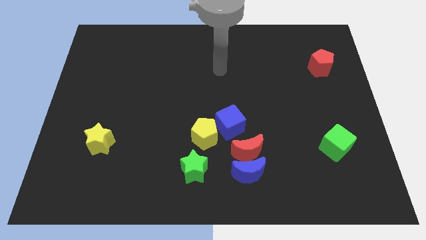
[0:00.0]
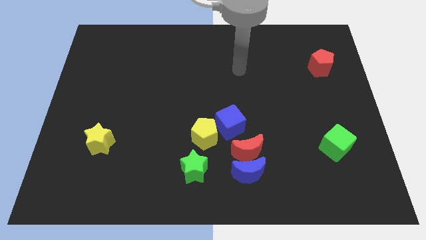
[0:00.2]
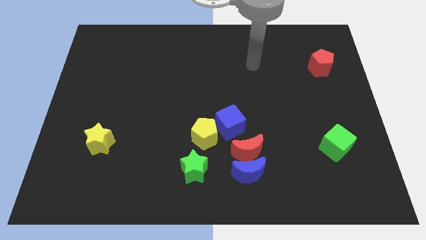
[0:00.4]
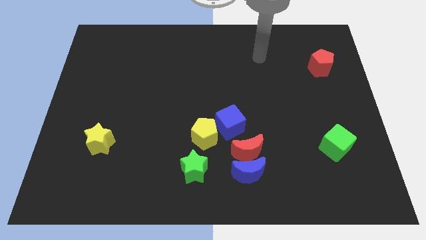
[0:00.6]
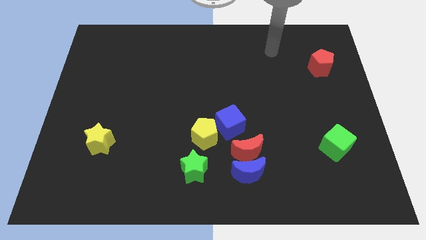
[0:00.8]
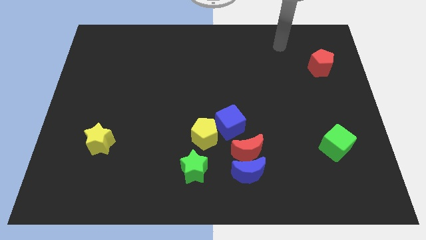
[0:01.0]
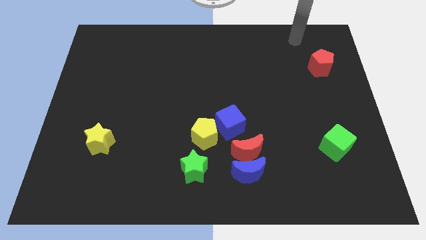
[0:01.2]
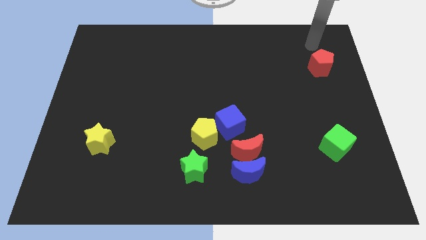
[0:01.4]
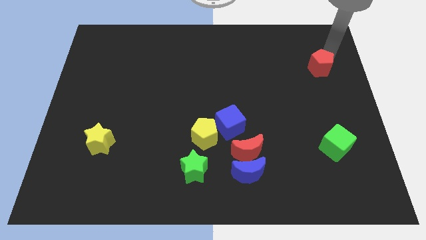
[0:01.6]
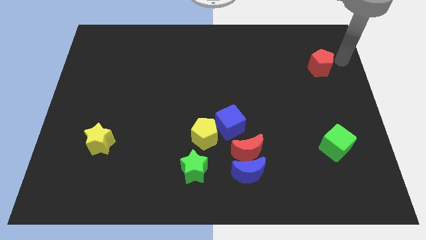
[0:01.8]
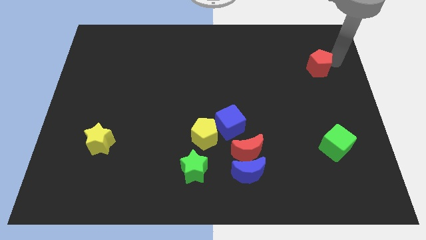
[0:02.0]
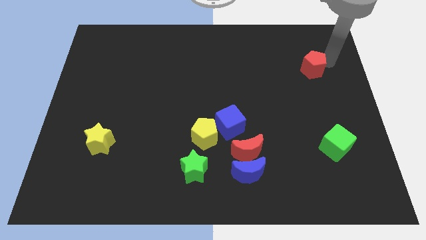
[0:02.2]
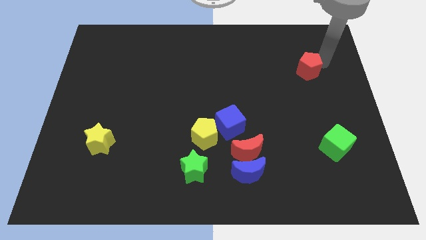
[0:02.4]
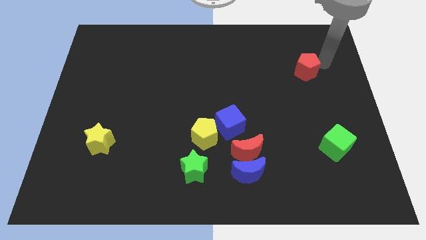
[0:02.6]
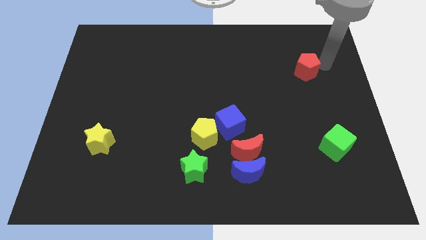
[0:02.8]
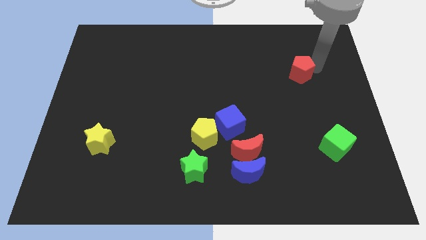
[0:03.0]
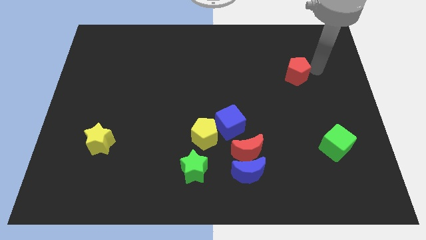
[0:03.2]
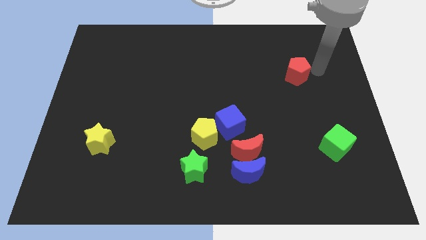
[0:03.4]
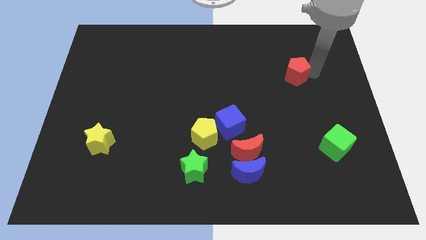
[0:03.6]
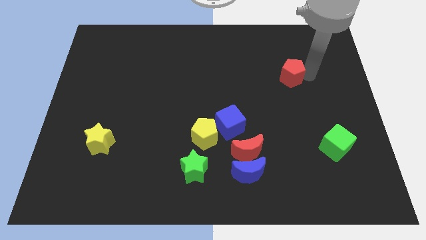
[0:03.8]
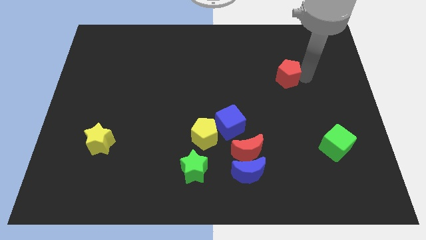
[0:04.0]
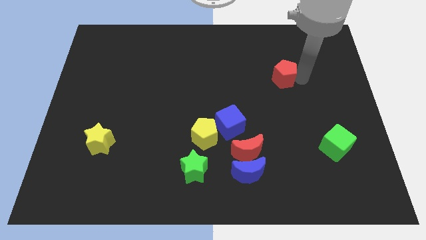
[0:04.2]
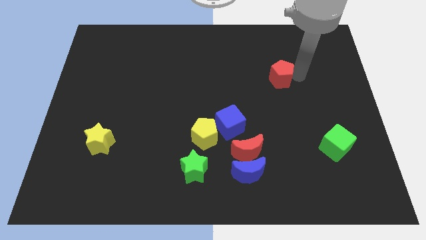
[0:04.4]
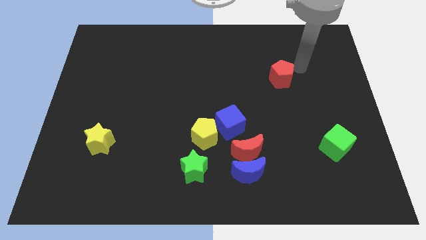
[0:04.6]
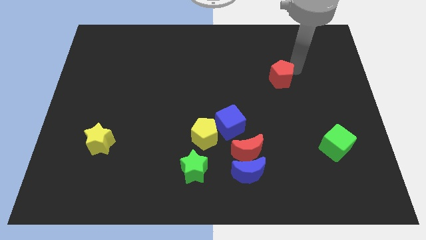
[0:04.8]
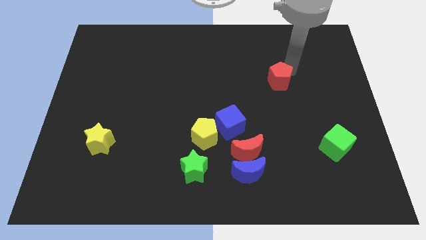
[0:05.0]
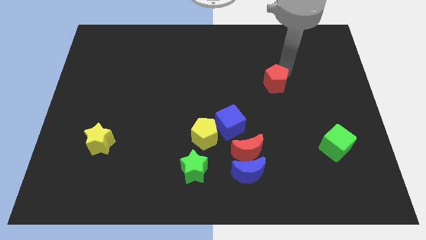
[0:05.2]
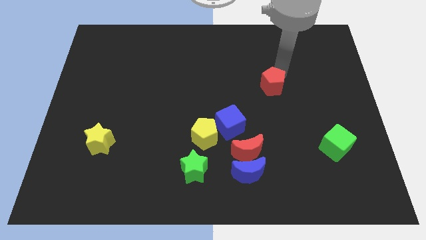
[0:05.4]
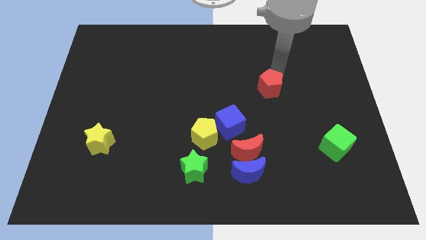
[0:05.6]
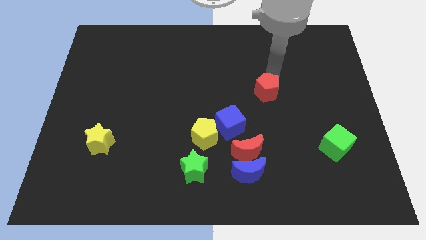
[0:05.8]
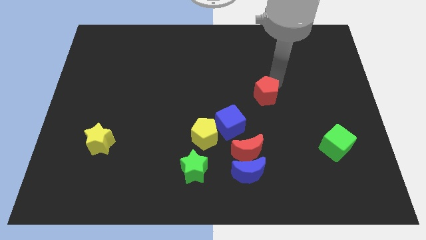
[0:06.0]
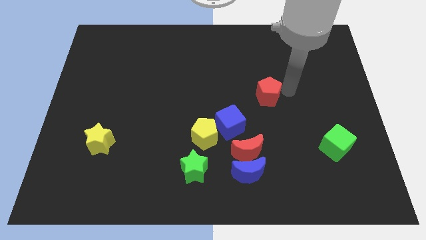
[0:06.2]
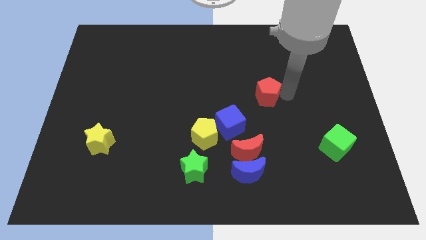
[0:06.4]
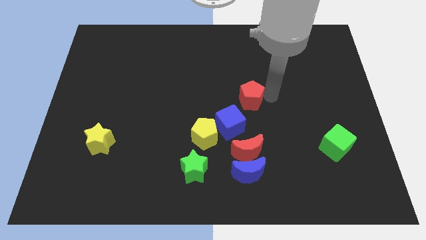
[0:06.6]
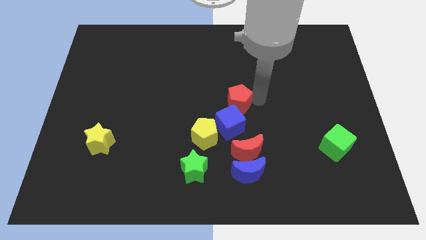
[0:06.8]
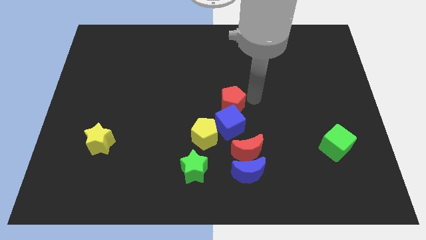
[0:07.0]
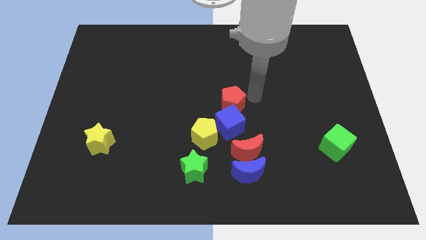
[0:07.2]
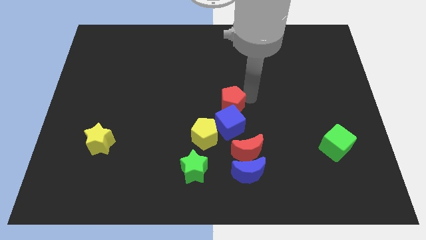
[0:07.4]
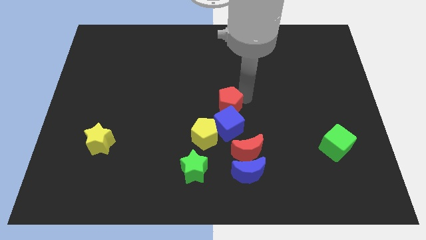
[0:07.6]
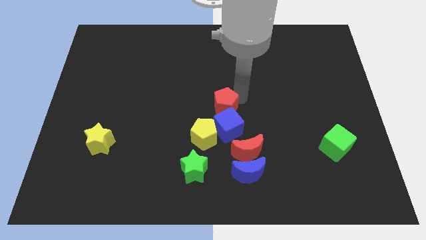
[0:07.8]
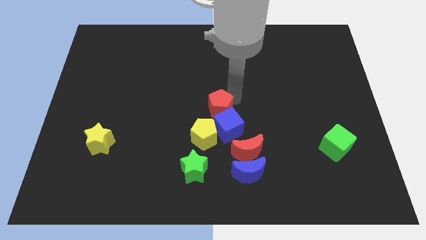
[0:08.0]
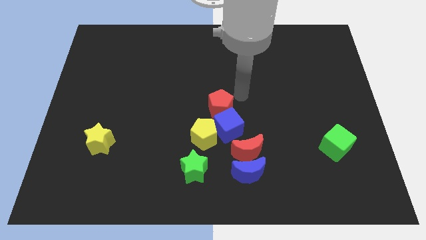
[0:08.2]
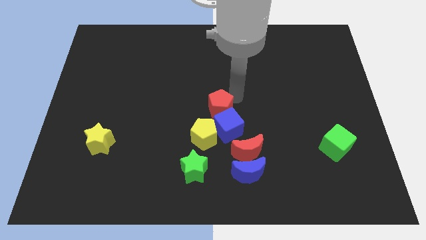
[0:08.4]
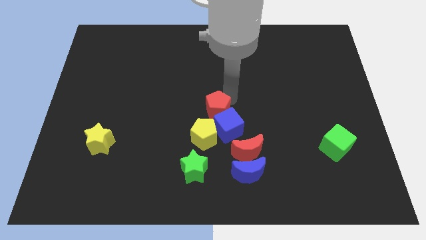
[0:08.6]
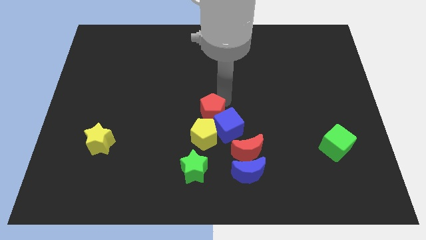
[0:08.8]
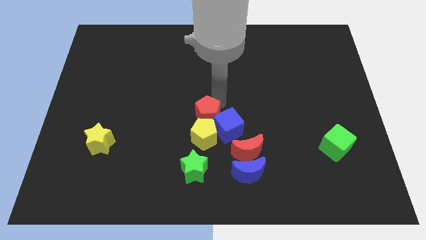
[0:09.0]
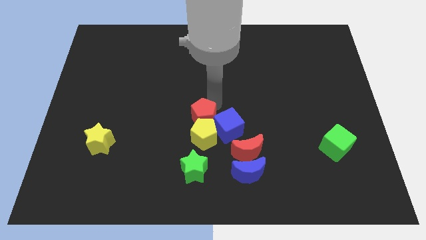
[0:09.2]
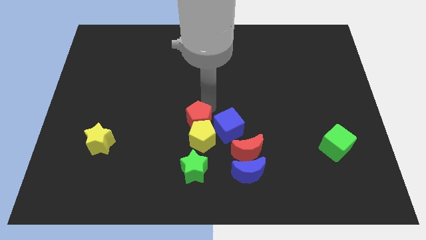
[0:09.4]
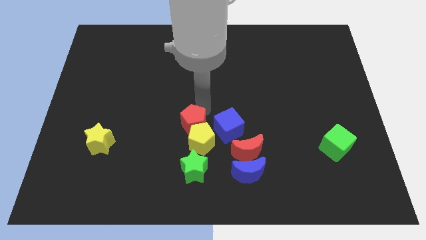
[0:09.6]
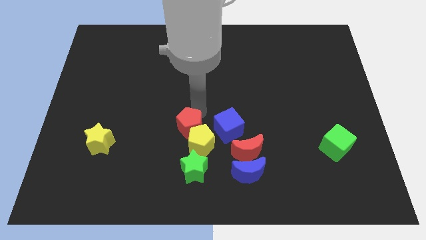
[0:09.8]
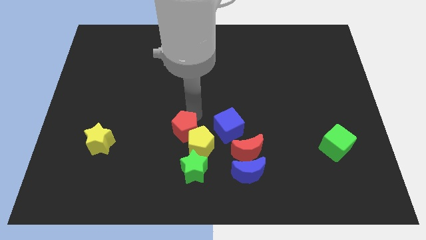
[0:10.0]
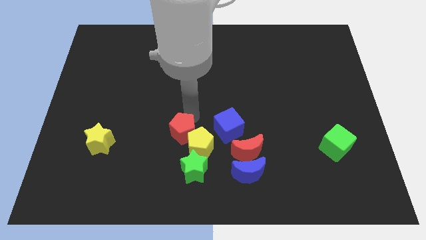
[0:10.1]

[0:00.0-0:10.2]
push the red pentagon to the top left side of the green star

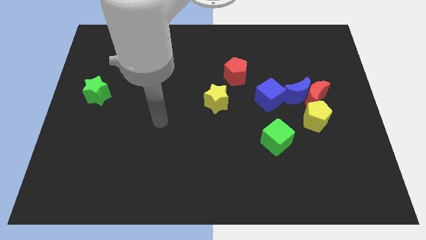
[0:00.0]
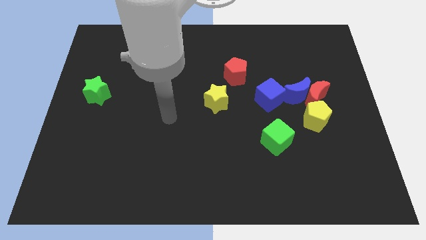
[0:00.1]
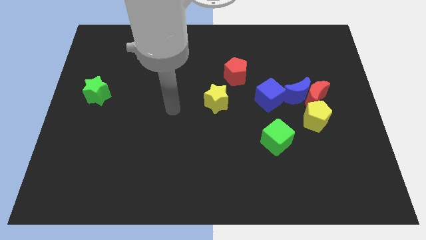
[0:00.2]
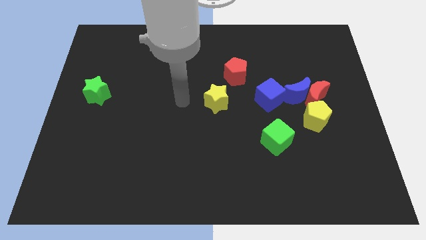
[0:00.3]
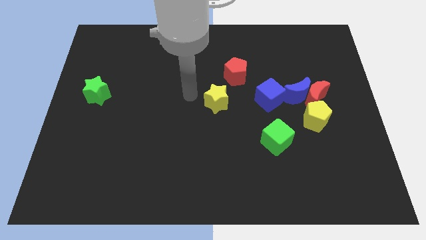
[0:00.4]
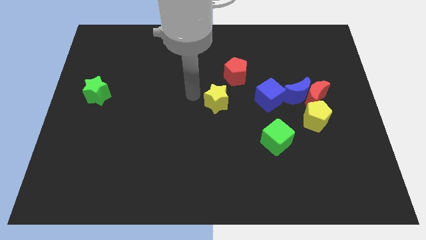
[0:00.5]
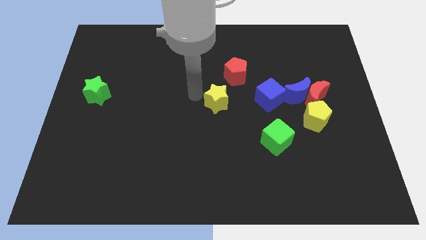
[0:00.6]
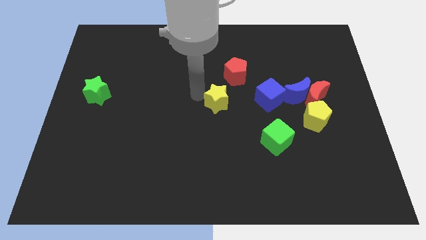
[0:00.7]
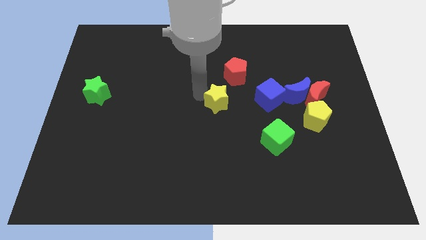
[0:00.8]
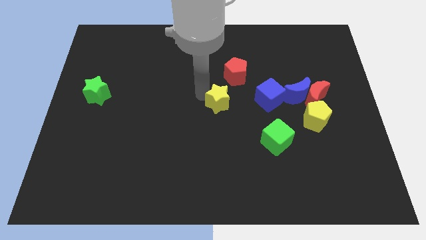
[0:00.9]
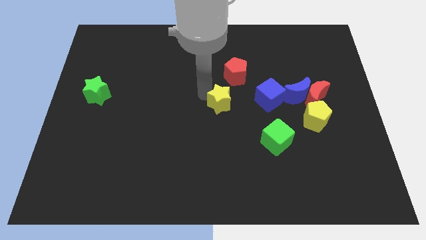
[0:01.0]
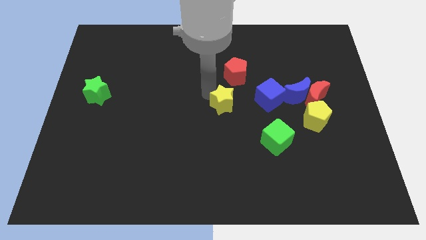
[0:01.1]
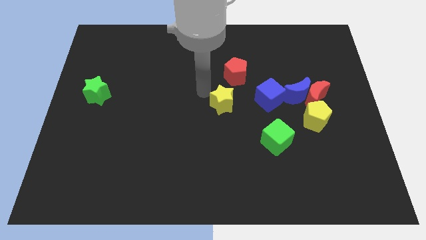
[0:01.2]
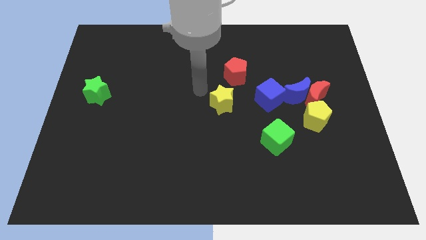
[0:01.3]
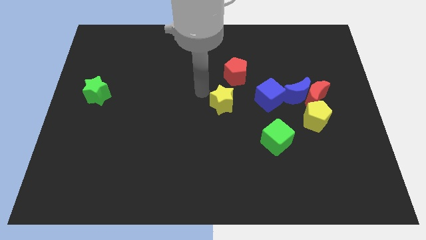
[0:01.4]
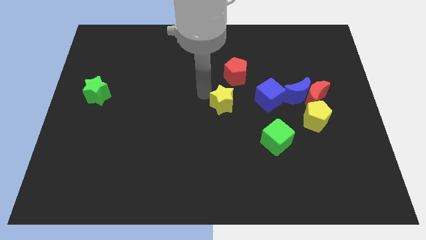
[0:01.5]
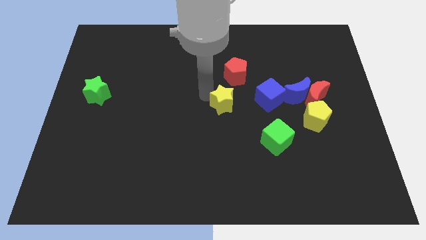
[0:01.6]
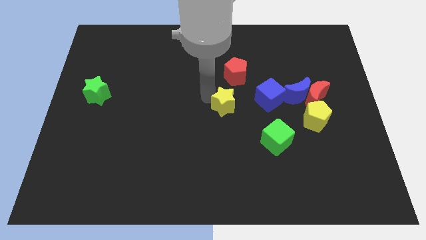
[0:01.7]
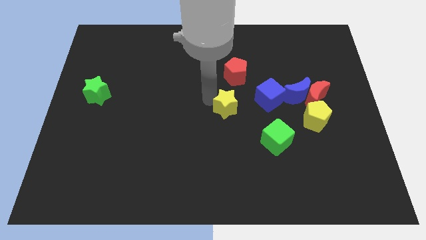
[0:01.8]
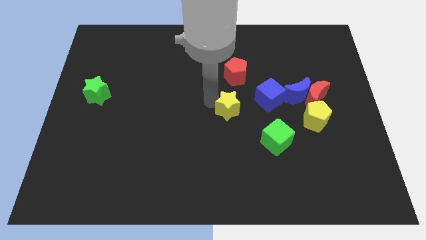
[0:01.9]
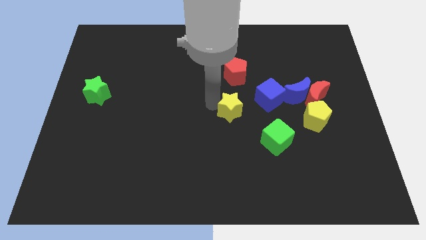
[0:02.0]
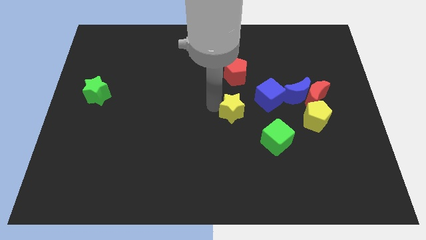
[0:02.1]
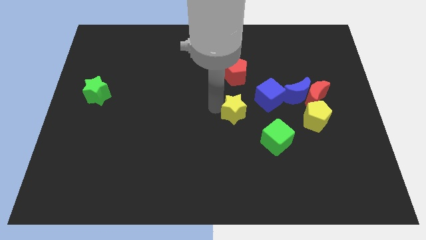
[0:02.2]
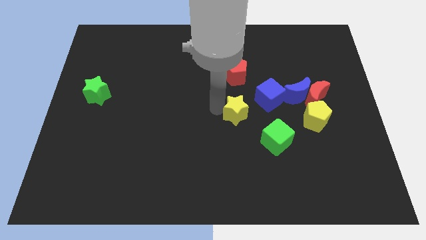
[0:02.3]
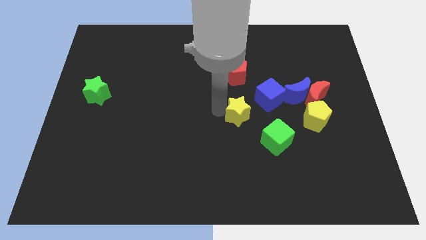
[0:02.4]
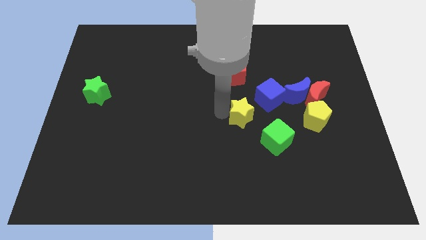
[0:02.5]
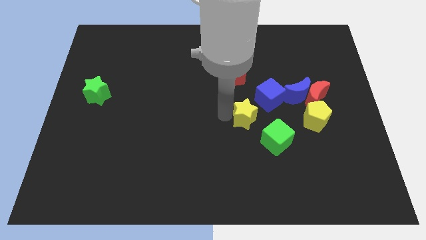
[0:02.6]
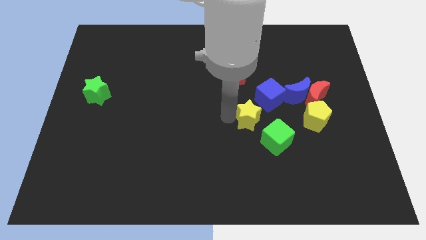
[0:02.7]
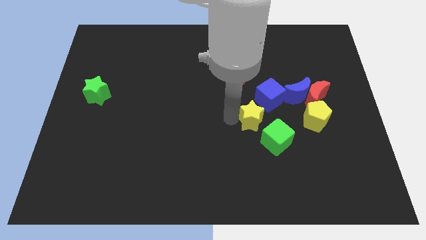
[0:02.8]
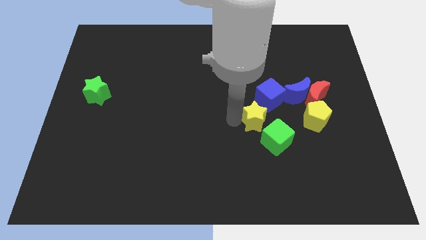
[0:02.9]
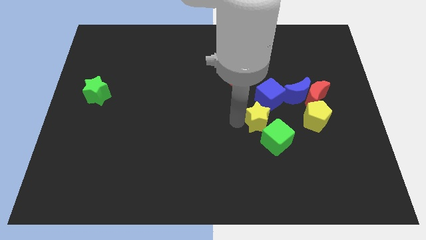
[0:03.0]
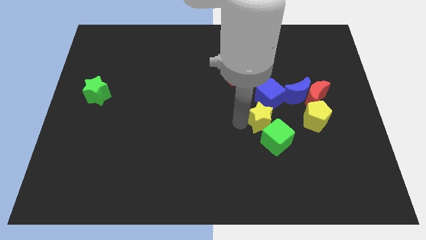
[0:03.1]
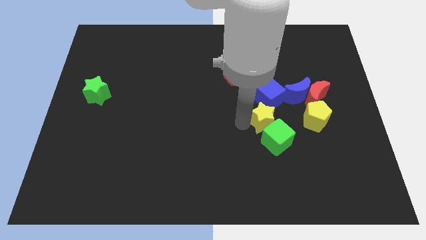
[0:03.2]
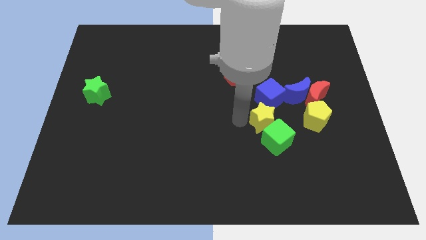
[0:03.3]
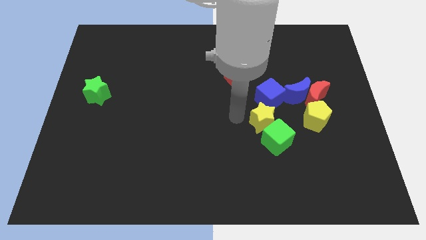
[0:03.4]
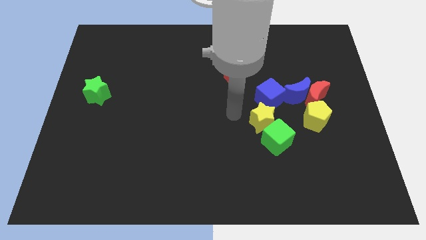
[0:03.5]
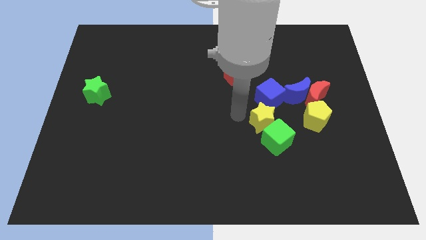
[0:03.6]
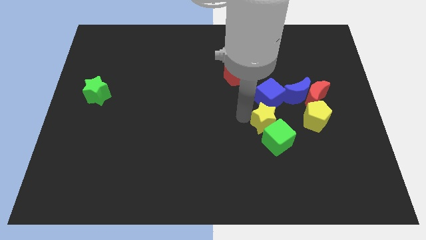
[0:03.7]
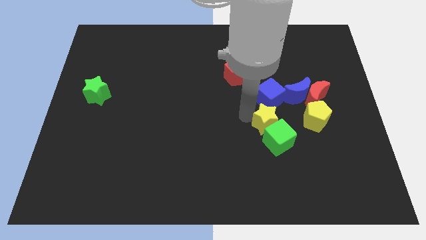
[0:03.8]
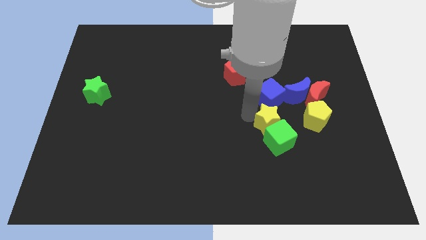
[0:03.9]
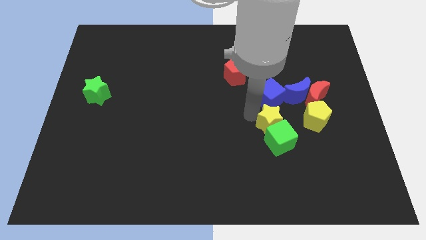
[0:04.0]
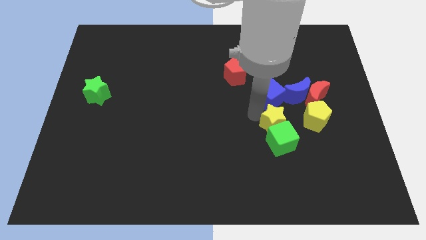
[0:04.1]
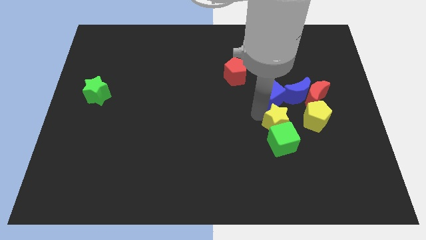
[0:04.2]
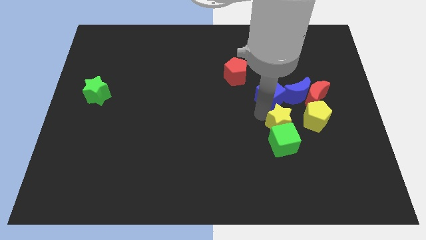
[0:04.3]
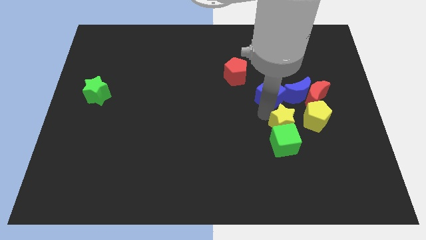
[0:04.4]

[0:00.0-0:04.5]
put the yellow star below the blue moon
